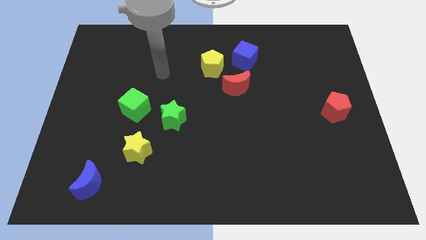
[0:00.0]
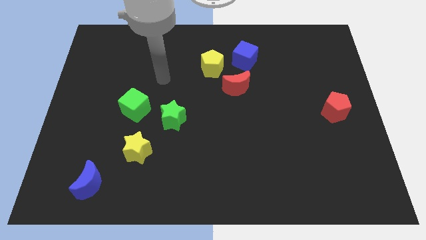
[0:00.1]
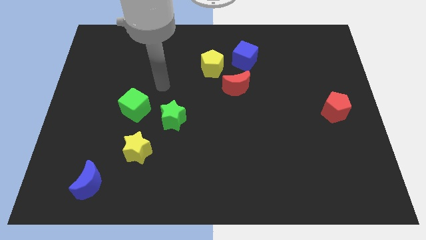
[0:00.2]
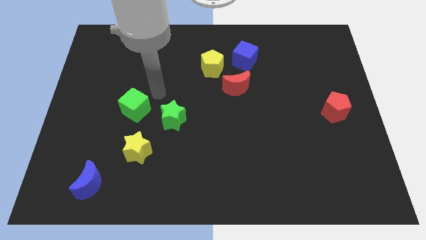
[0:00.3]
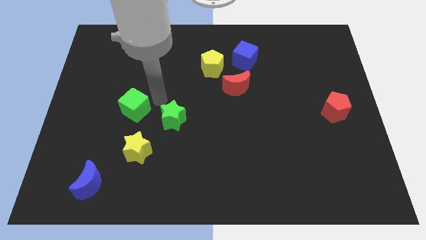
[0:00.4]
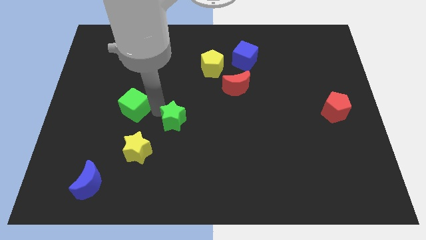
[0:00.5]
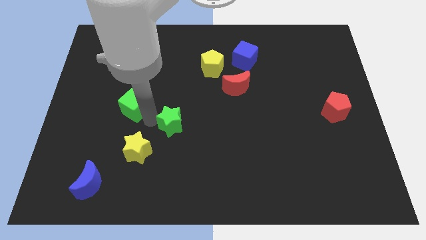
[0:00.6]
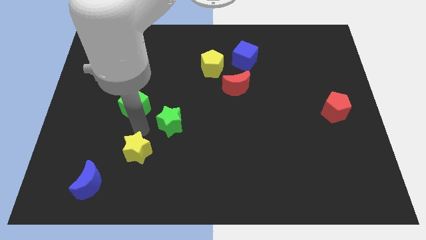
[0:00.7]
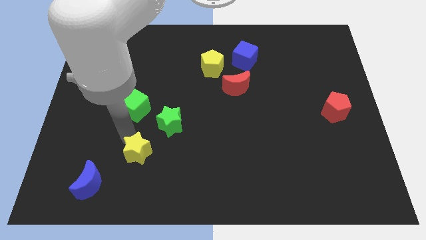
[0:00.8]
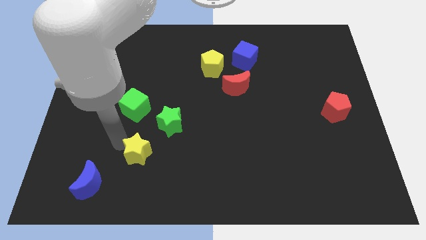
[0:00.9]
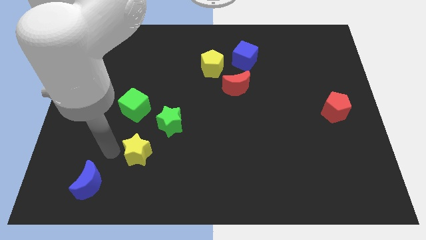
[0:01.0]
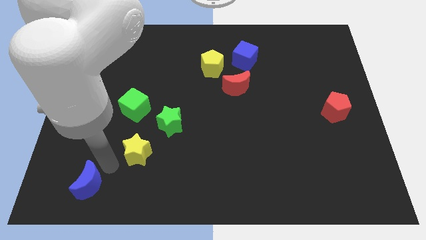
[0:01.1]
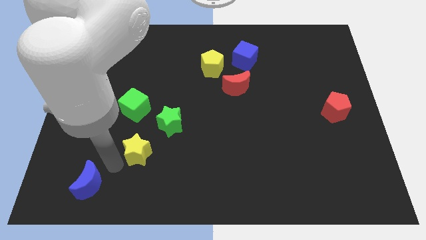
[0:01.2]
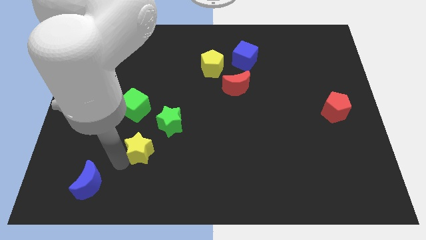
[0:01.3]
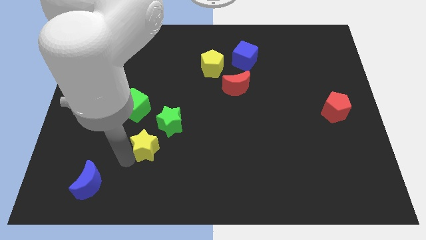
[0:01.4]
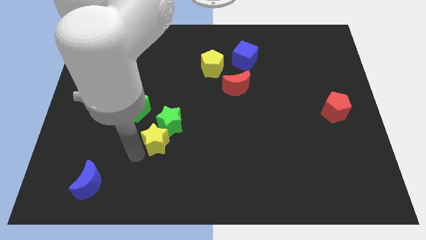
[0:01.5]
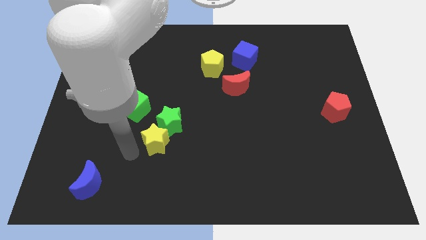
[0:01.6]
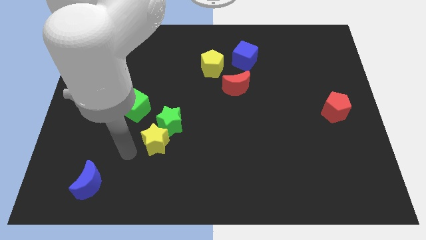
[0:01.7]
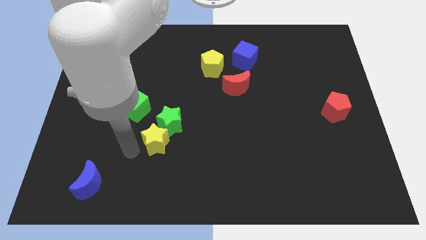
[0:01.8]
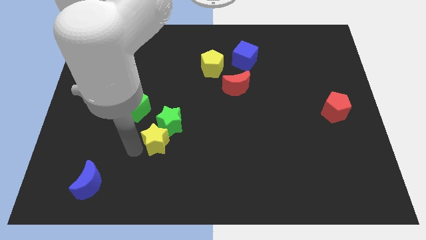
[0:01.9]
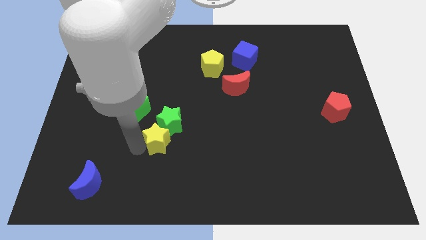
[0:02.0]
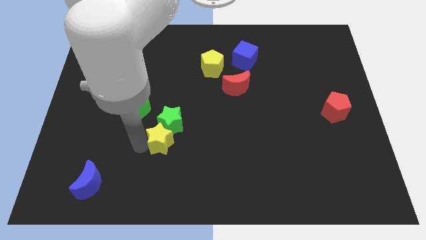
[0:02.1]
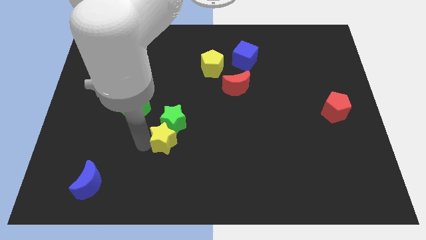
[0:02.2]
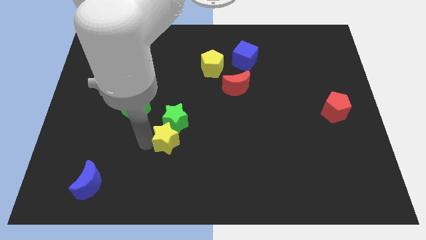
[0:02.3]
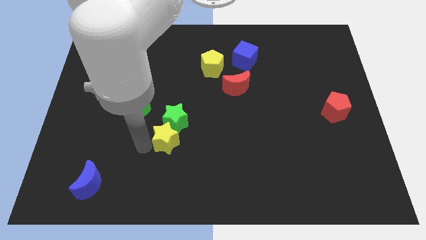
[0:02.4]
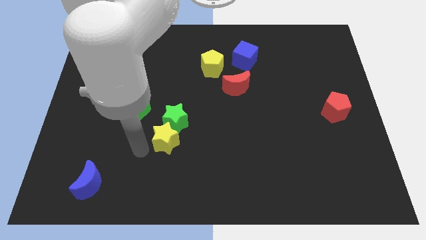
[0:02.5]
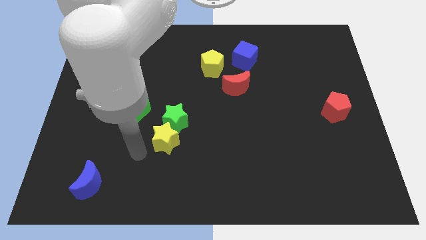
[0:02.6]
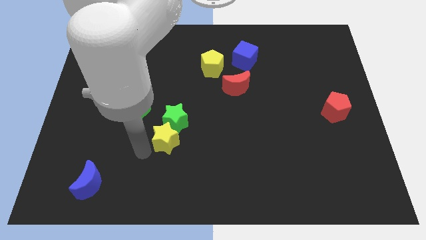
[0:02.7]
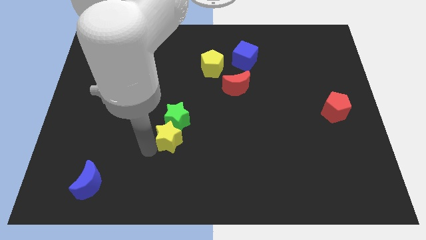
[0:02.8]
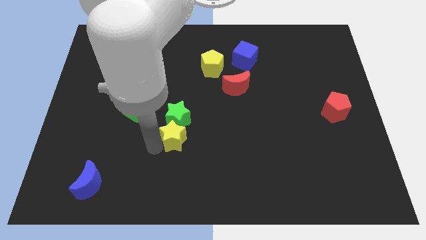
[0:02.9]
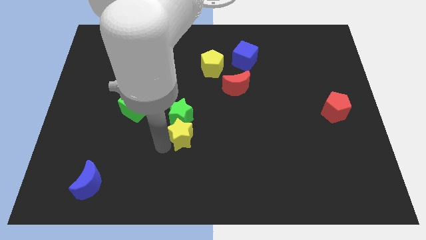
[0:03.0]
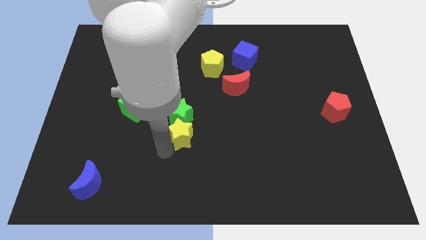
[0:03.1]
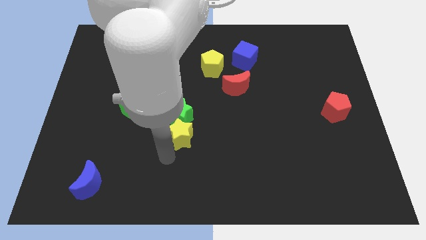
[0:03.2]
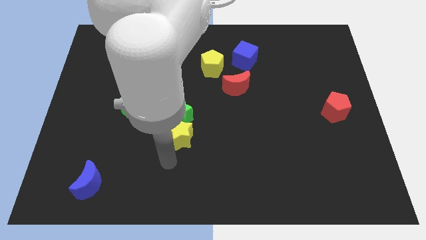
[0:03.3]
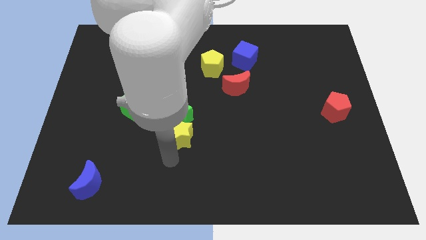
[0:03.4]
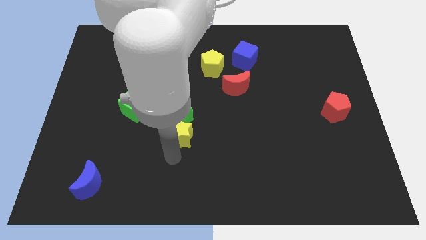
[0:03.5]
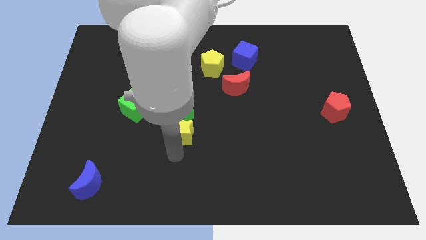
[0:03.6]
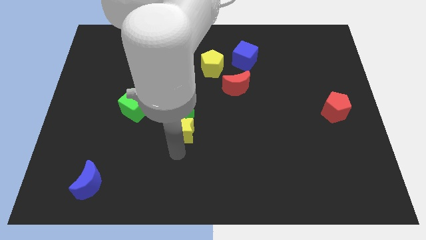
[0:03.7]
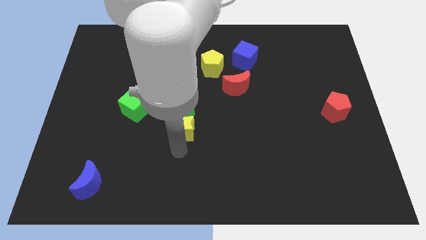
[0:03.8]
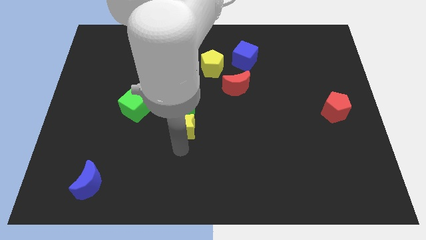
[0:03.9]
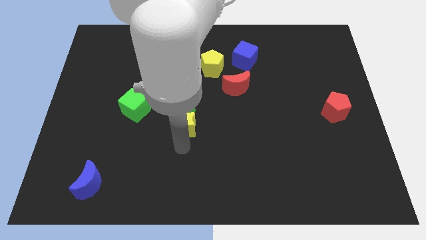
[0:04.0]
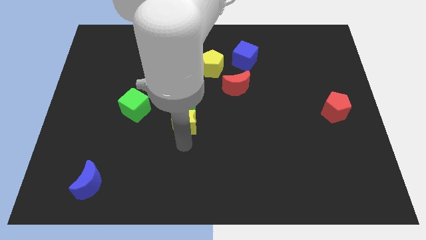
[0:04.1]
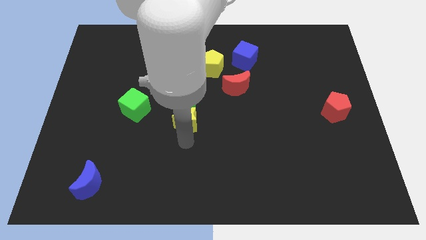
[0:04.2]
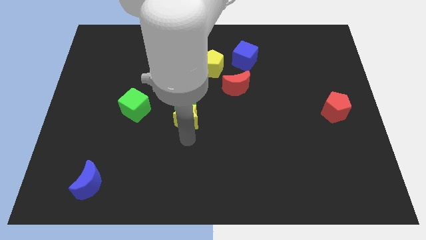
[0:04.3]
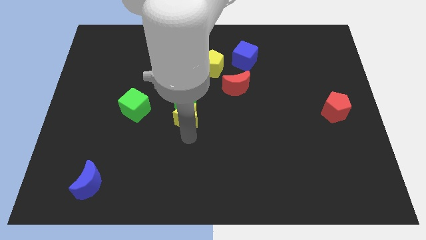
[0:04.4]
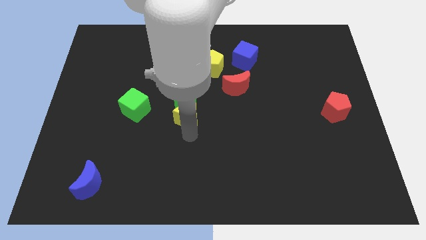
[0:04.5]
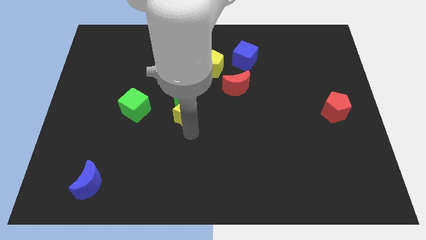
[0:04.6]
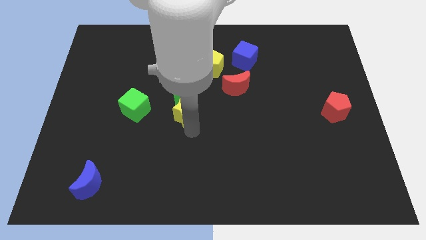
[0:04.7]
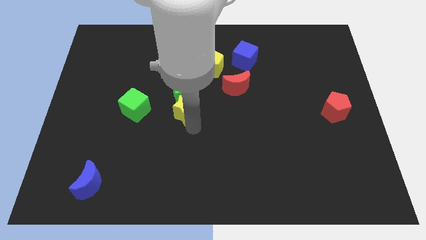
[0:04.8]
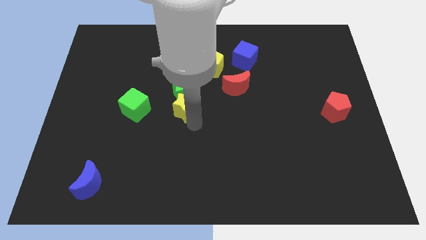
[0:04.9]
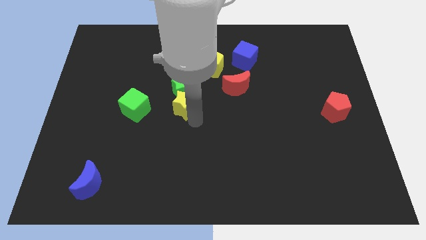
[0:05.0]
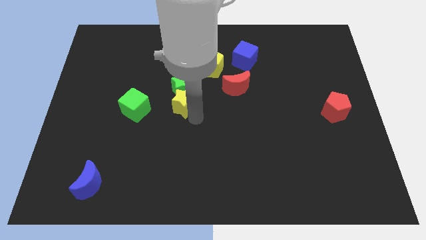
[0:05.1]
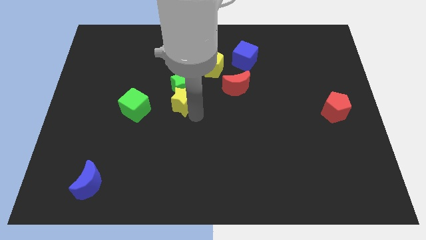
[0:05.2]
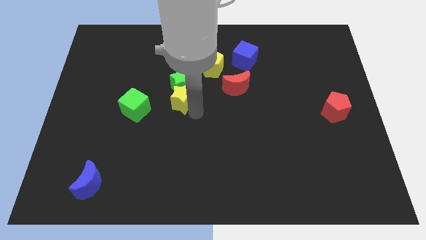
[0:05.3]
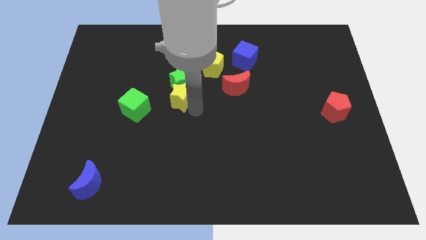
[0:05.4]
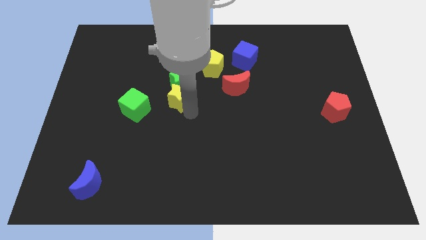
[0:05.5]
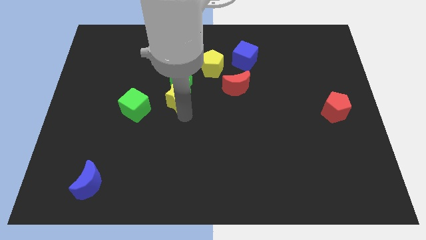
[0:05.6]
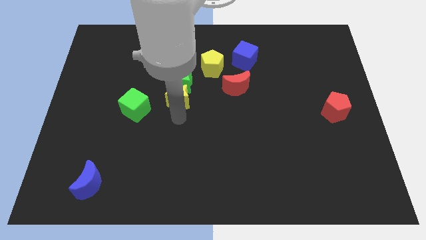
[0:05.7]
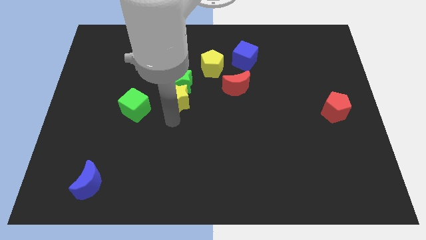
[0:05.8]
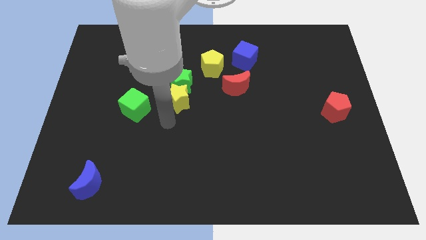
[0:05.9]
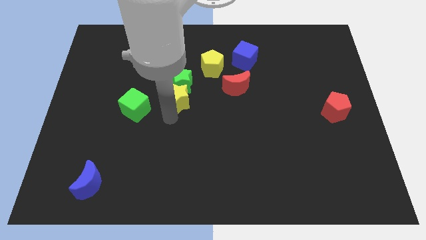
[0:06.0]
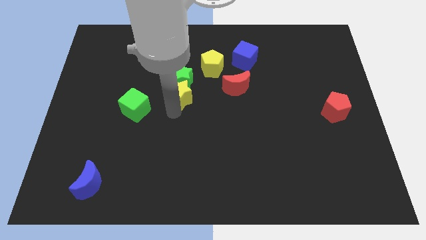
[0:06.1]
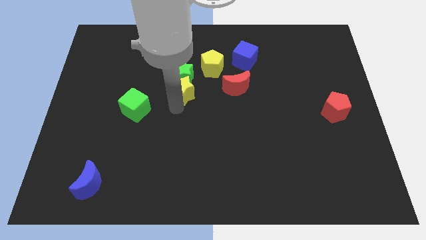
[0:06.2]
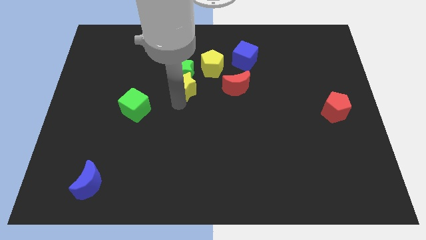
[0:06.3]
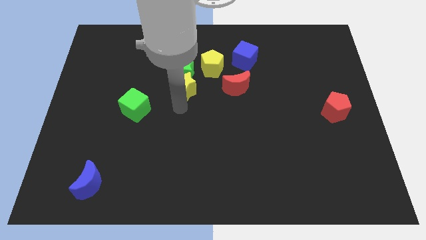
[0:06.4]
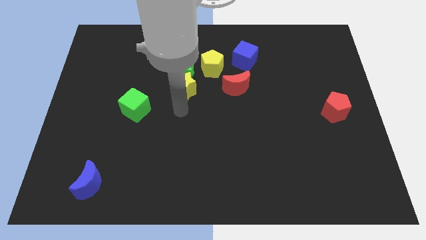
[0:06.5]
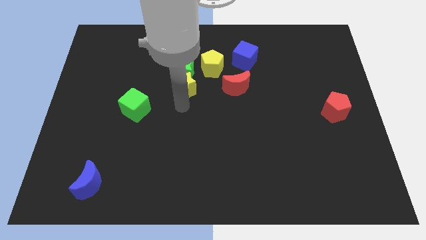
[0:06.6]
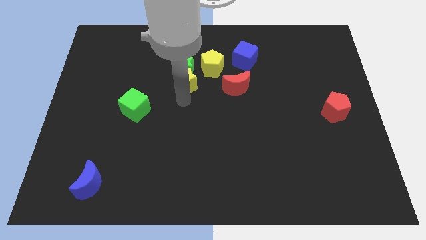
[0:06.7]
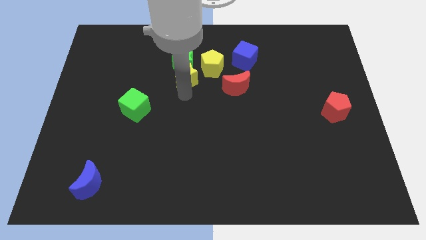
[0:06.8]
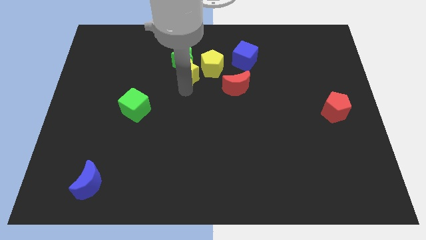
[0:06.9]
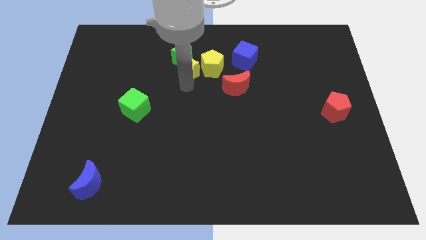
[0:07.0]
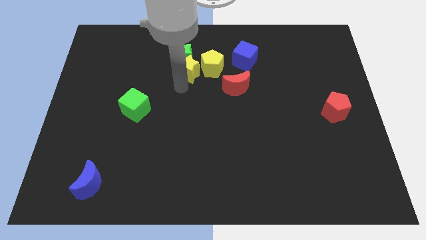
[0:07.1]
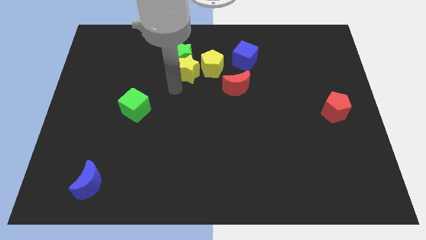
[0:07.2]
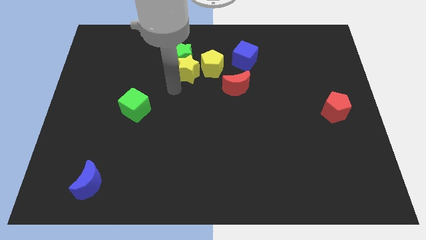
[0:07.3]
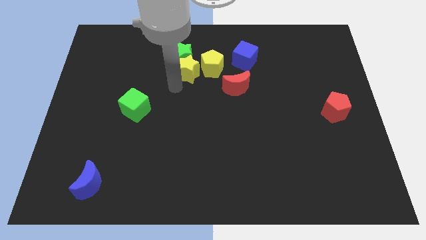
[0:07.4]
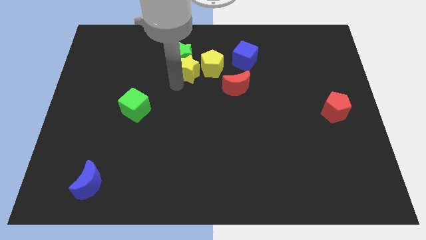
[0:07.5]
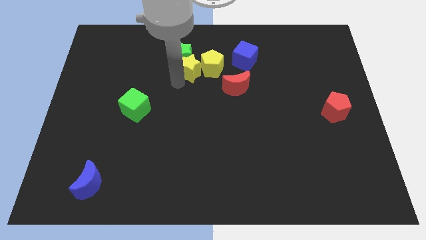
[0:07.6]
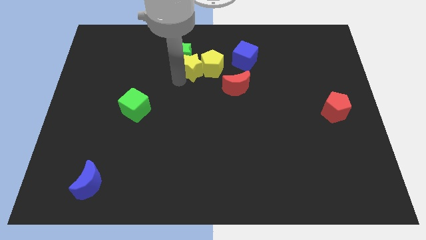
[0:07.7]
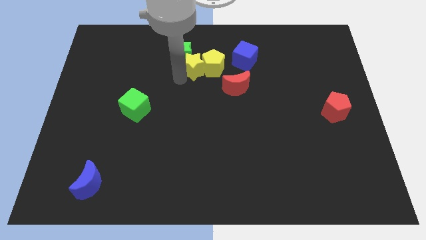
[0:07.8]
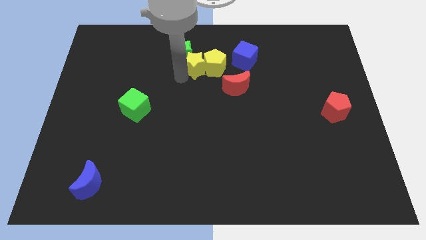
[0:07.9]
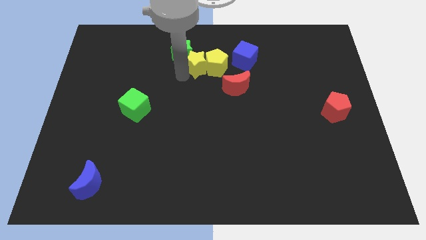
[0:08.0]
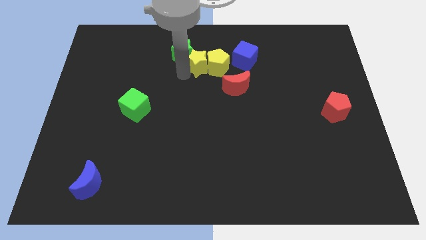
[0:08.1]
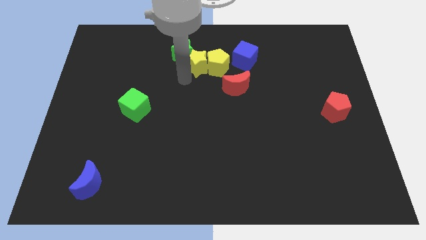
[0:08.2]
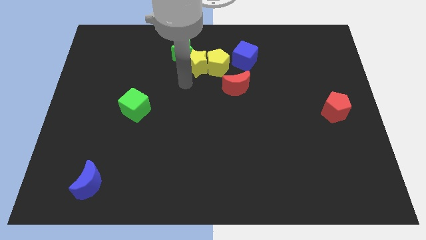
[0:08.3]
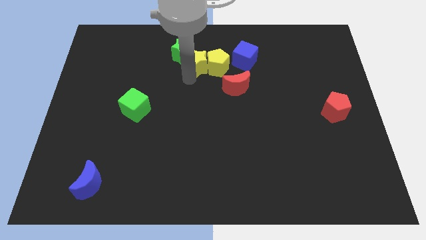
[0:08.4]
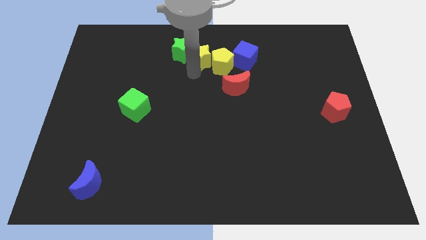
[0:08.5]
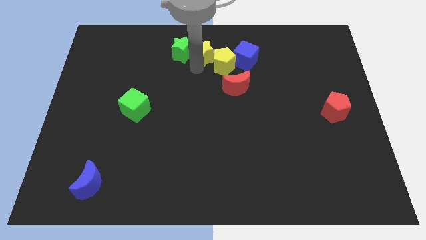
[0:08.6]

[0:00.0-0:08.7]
move the yellow star to the top
